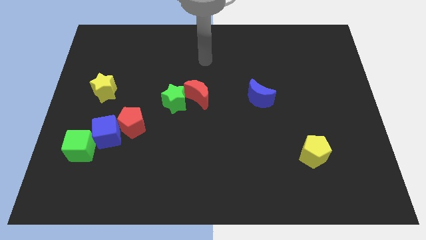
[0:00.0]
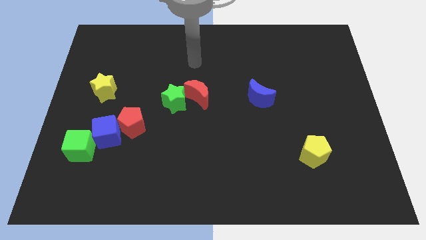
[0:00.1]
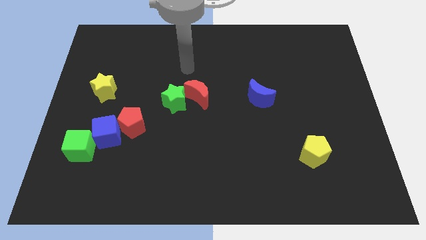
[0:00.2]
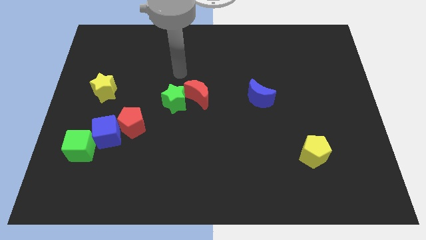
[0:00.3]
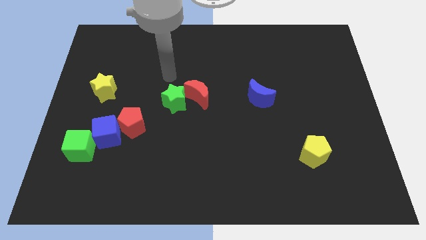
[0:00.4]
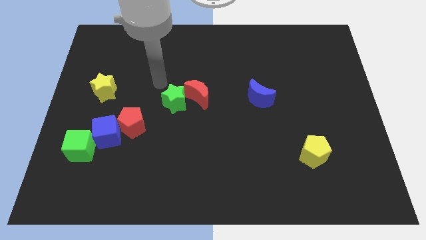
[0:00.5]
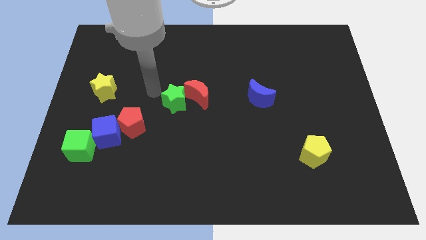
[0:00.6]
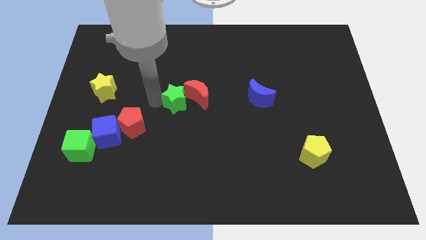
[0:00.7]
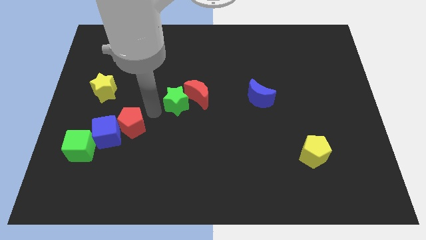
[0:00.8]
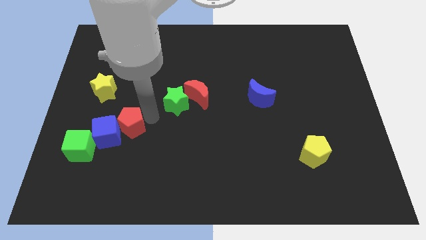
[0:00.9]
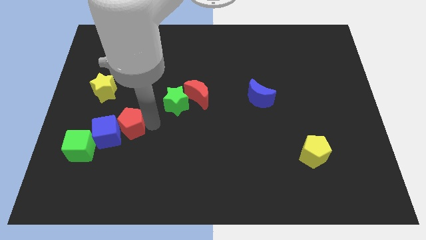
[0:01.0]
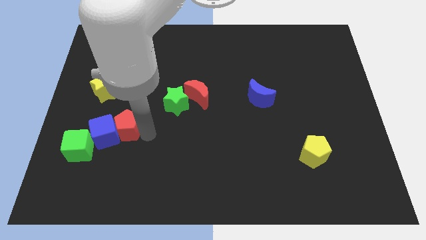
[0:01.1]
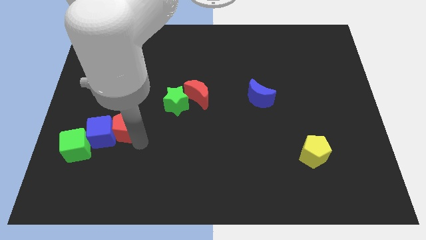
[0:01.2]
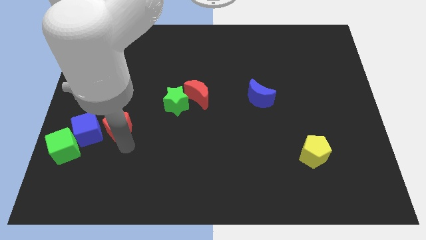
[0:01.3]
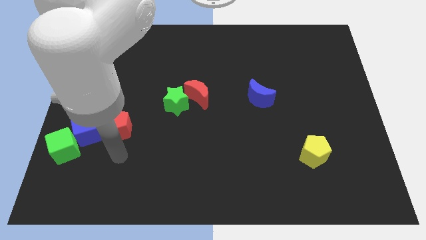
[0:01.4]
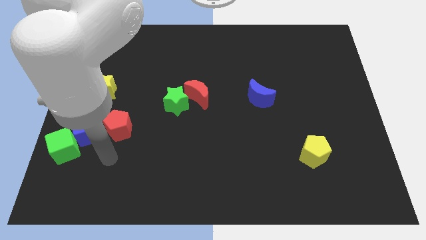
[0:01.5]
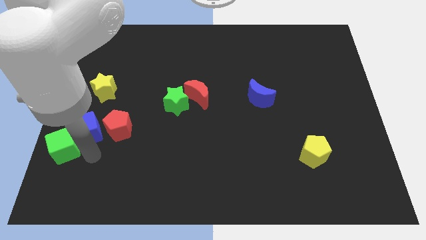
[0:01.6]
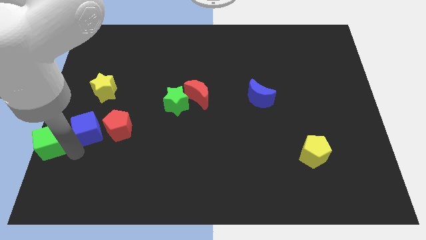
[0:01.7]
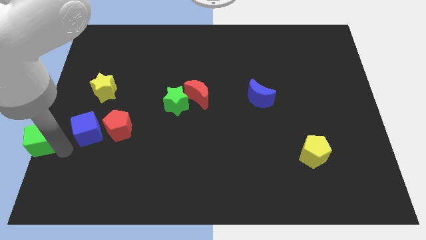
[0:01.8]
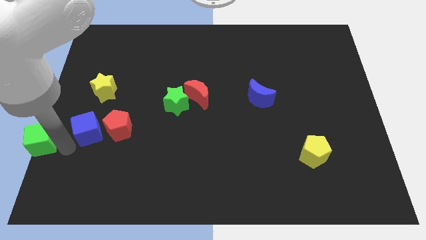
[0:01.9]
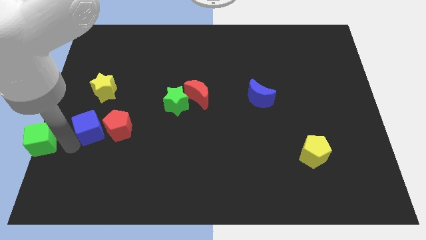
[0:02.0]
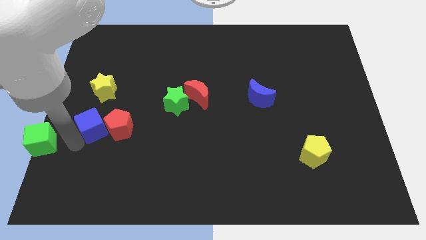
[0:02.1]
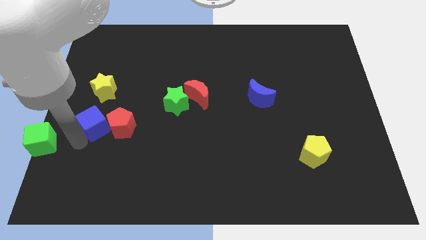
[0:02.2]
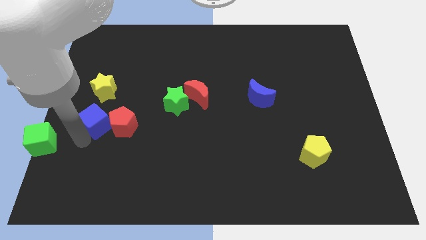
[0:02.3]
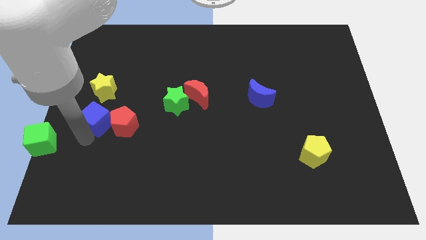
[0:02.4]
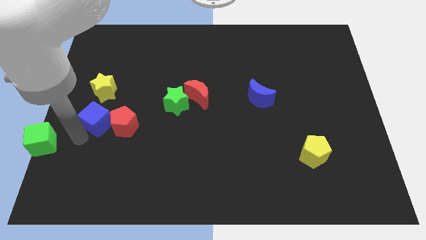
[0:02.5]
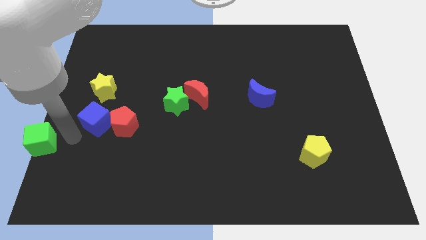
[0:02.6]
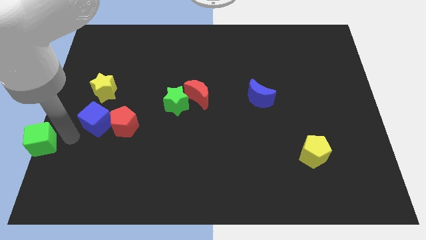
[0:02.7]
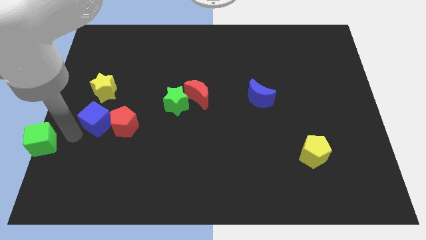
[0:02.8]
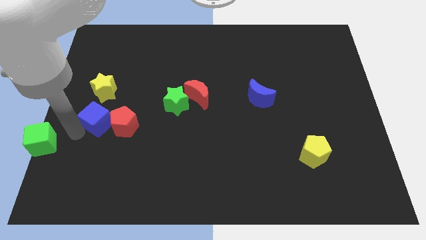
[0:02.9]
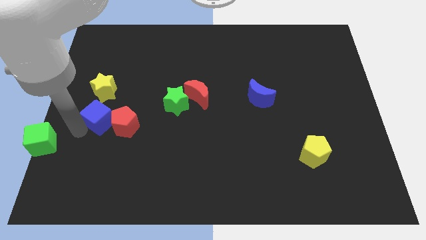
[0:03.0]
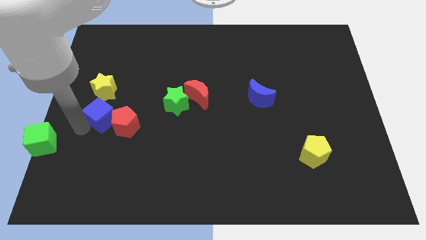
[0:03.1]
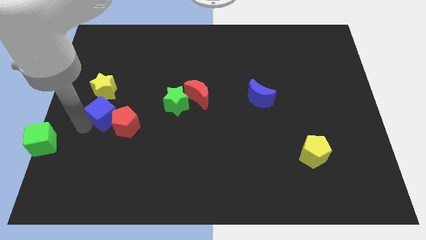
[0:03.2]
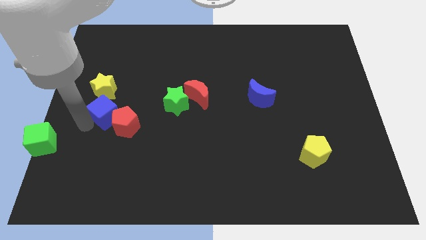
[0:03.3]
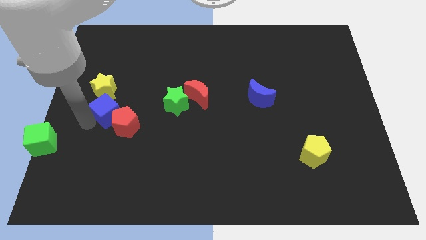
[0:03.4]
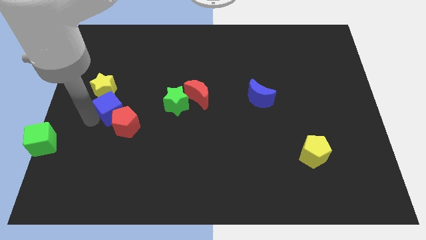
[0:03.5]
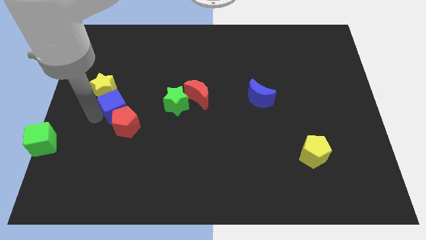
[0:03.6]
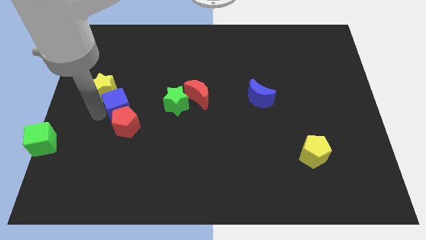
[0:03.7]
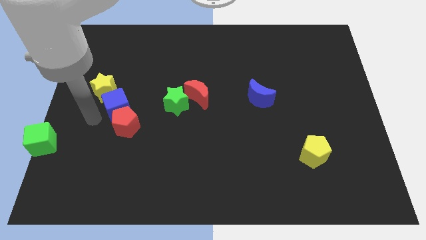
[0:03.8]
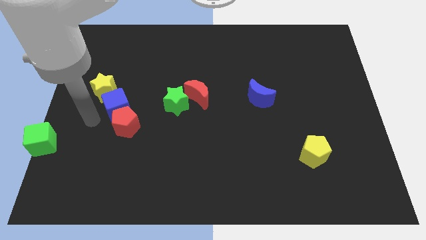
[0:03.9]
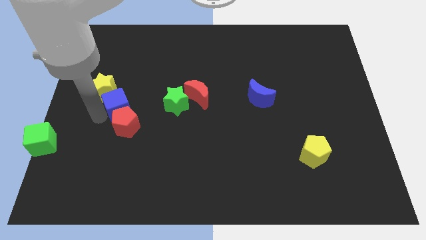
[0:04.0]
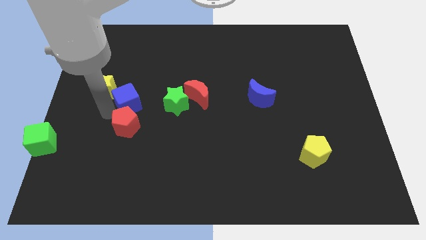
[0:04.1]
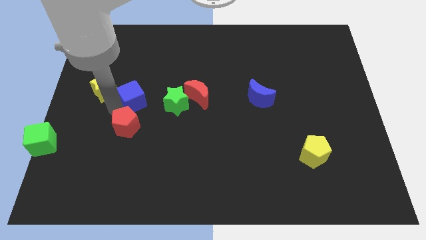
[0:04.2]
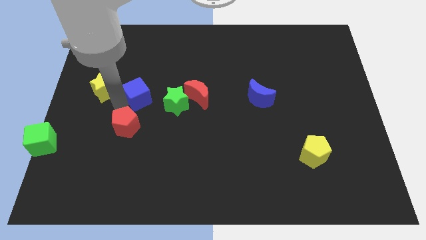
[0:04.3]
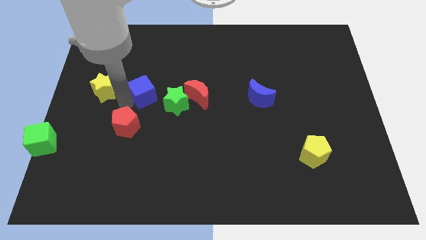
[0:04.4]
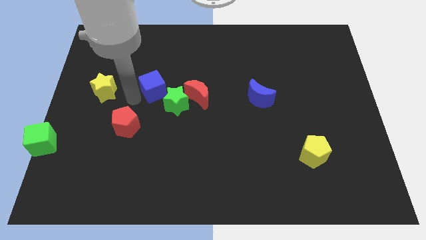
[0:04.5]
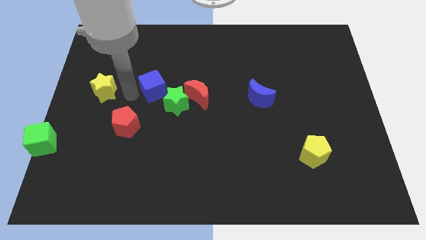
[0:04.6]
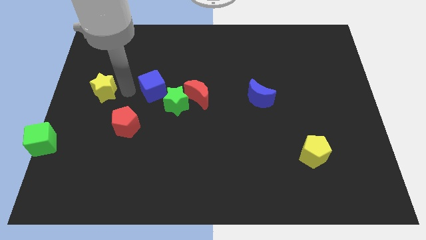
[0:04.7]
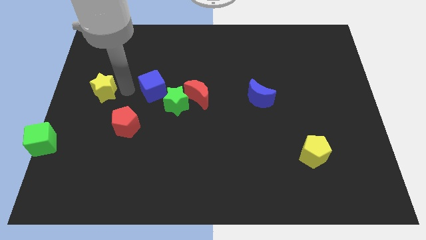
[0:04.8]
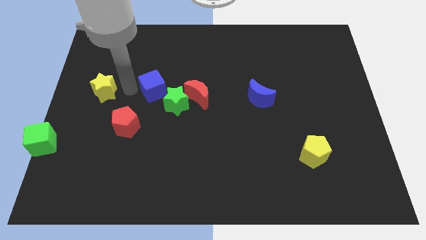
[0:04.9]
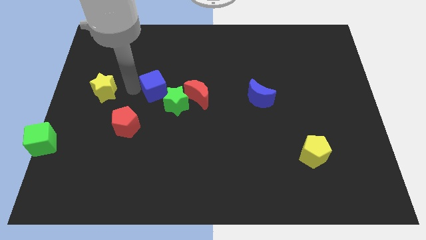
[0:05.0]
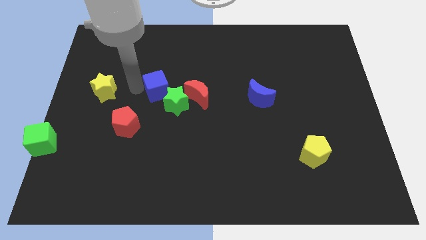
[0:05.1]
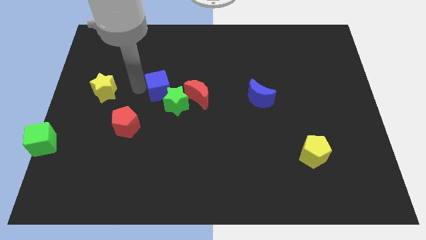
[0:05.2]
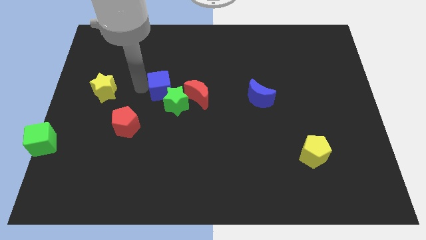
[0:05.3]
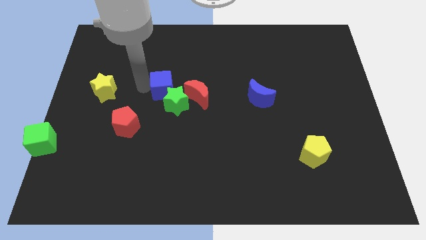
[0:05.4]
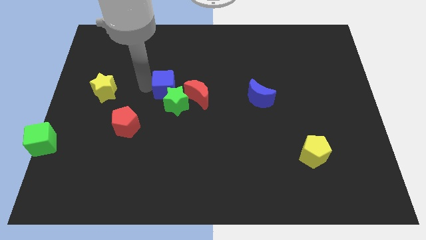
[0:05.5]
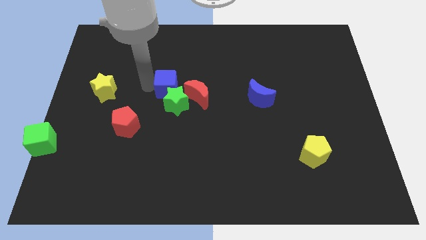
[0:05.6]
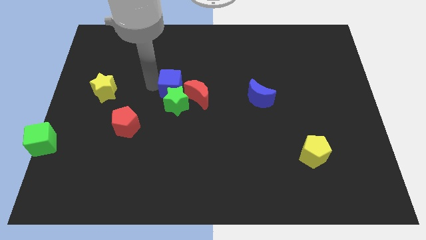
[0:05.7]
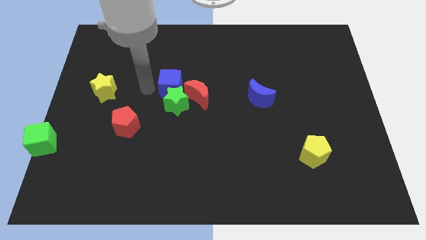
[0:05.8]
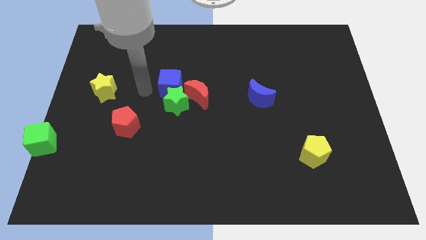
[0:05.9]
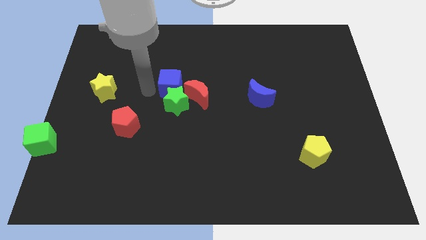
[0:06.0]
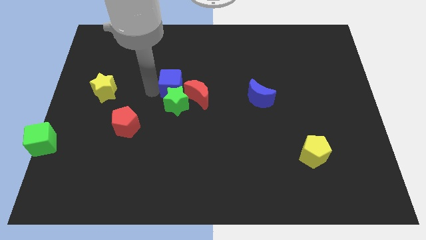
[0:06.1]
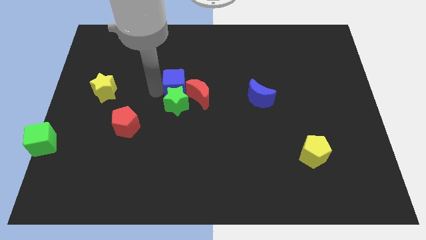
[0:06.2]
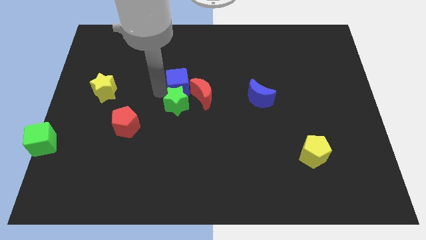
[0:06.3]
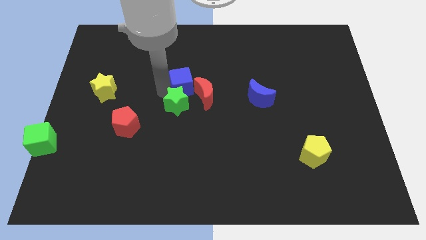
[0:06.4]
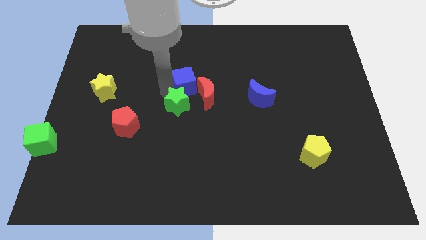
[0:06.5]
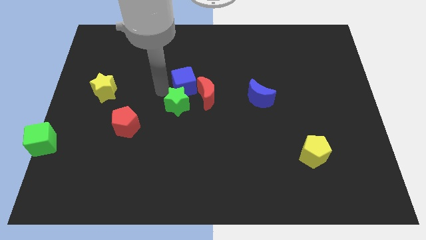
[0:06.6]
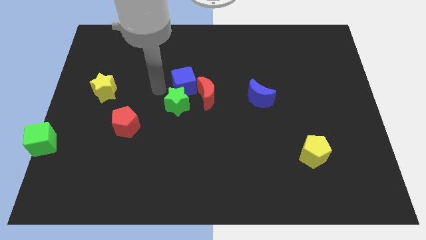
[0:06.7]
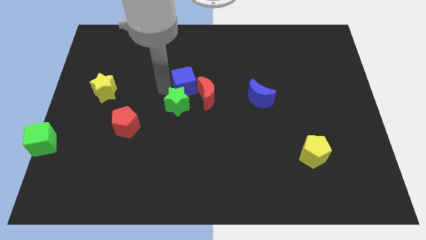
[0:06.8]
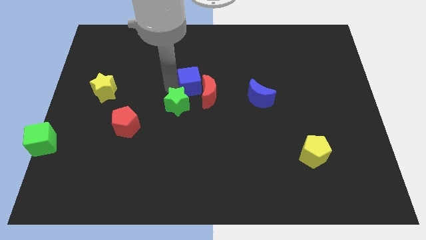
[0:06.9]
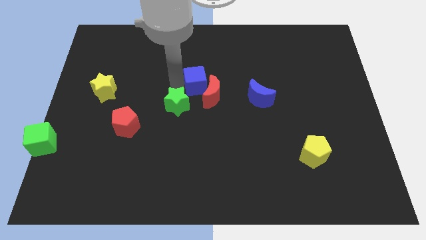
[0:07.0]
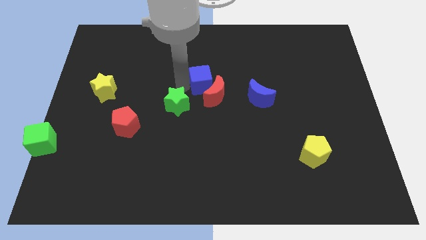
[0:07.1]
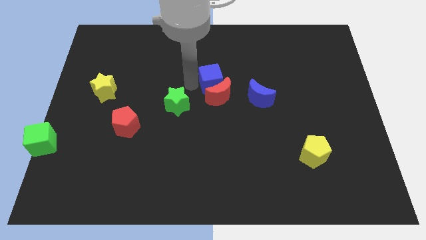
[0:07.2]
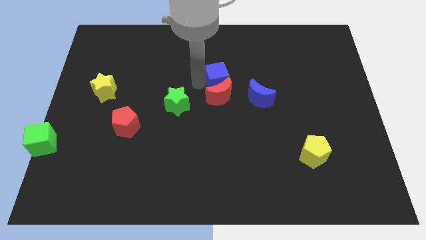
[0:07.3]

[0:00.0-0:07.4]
push the blue cube to the top left side of the blue moon
